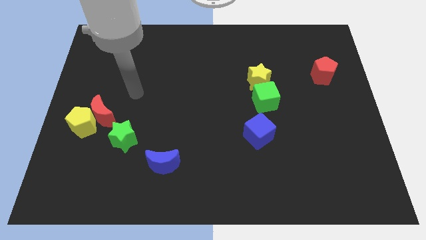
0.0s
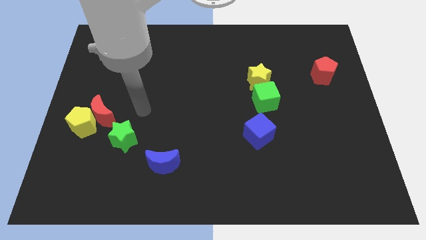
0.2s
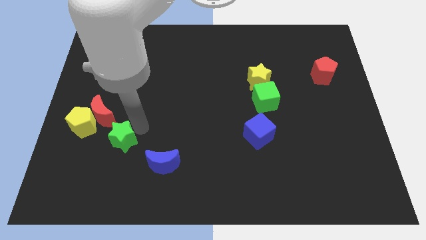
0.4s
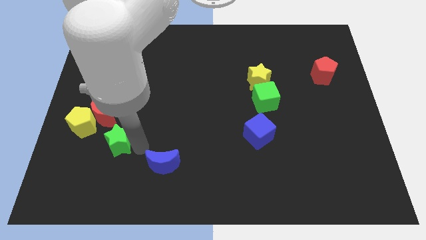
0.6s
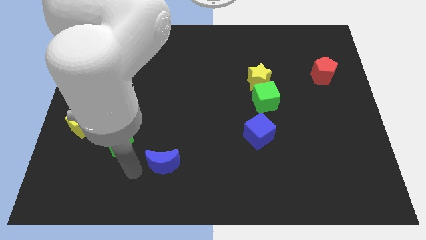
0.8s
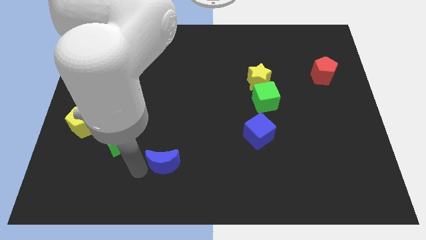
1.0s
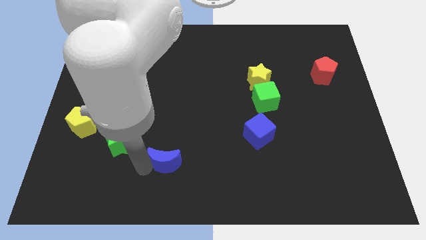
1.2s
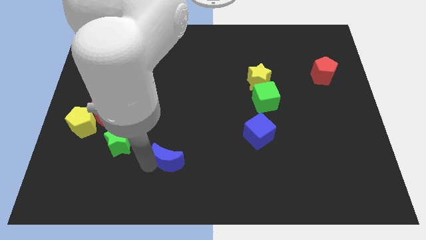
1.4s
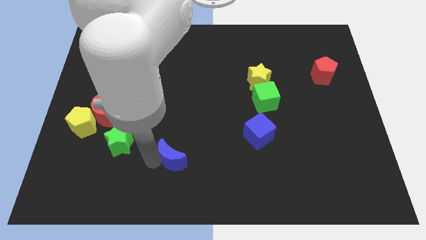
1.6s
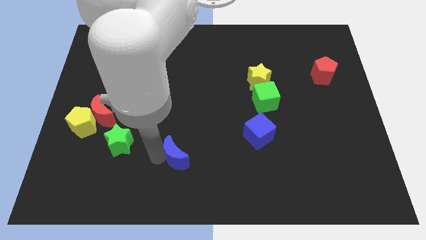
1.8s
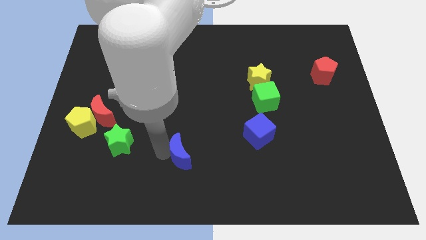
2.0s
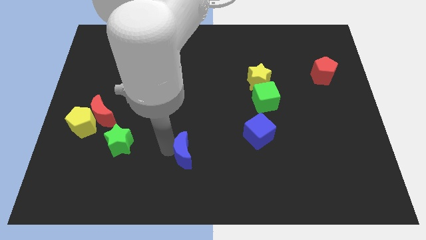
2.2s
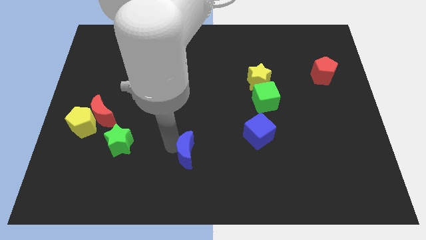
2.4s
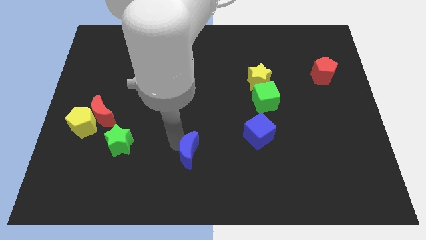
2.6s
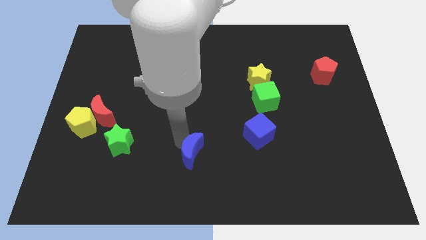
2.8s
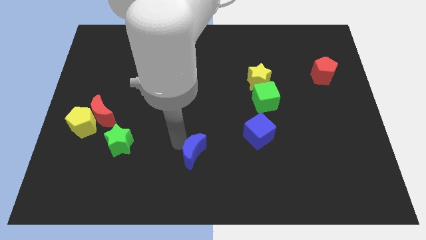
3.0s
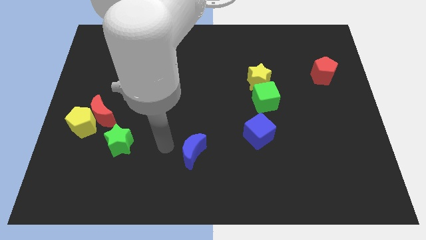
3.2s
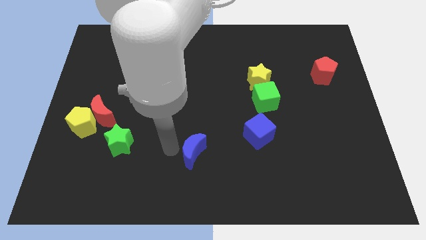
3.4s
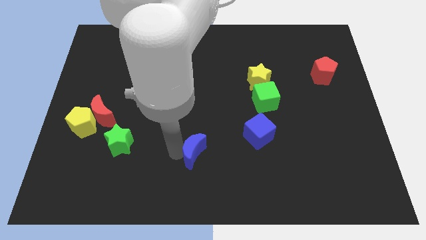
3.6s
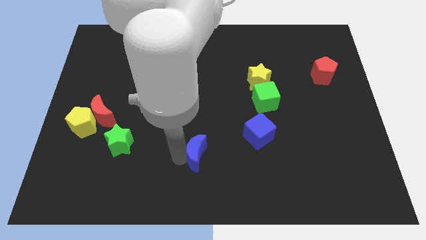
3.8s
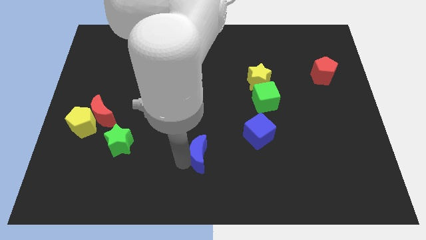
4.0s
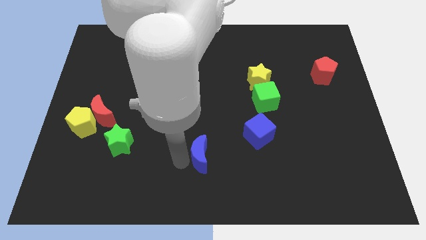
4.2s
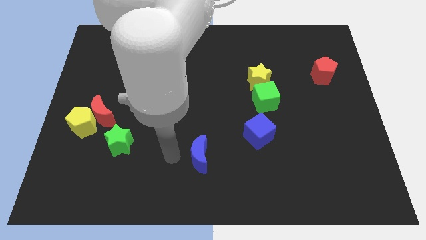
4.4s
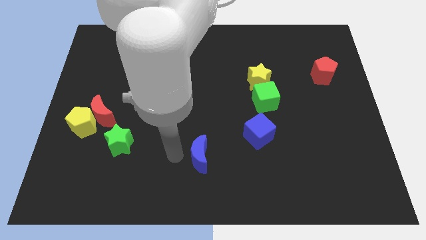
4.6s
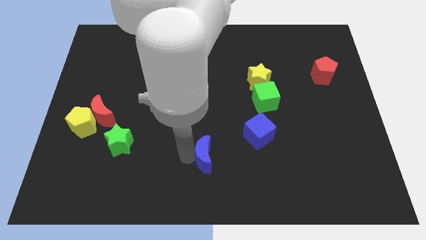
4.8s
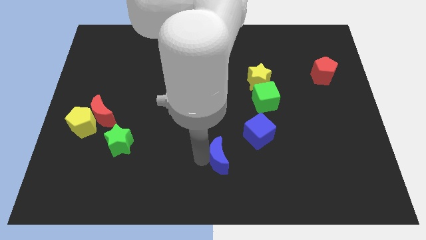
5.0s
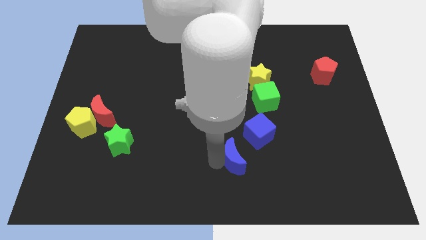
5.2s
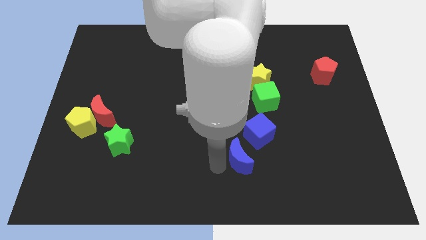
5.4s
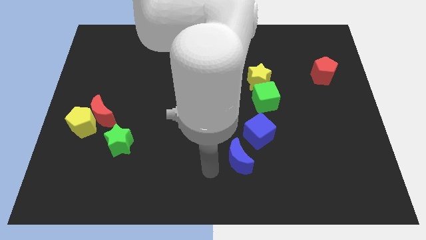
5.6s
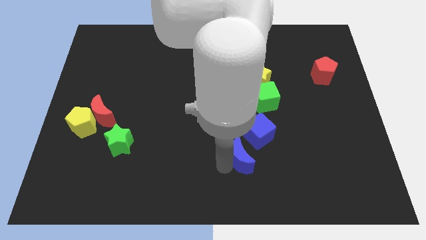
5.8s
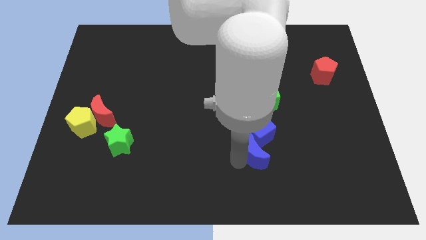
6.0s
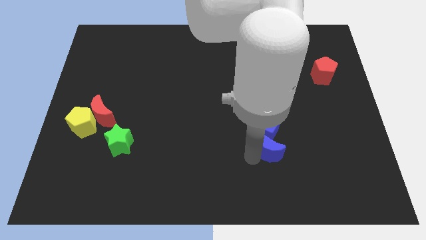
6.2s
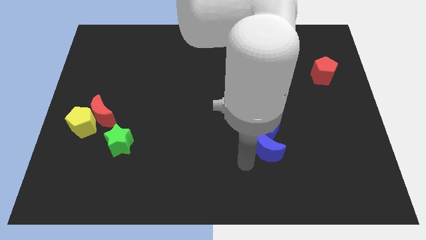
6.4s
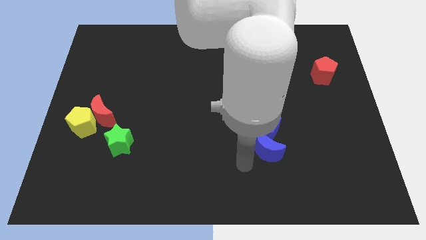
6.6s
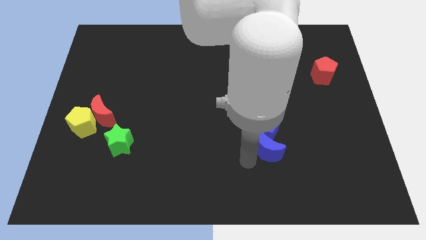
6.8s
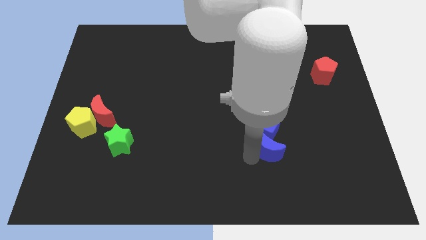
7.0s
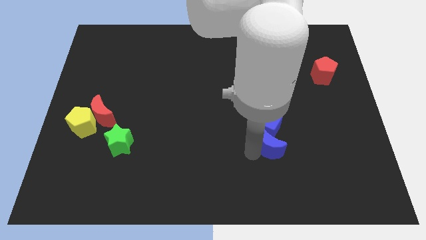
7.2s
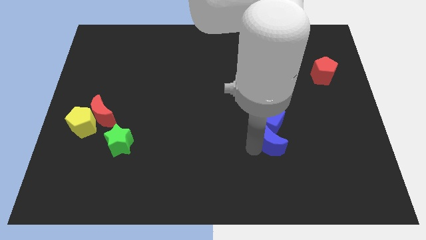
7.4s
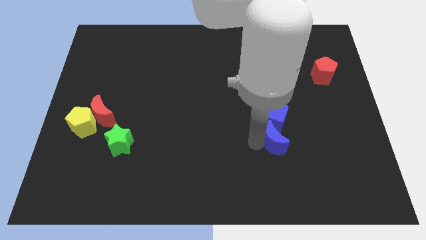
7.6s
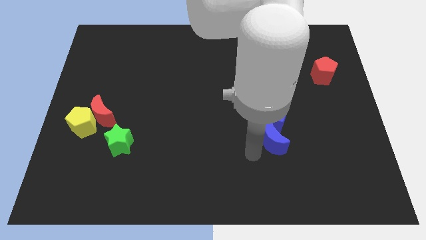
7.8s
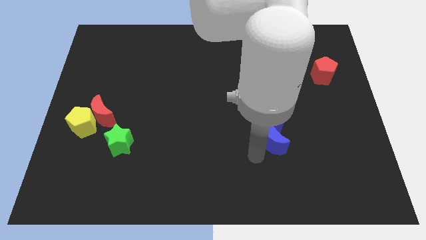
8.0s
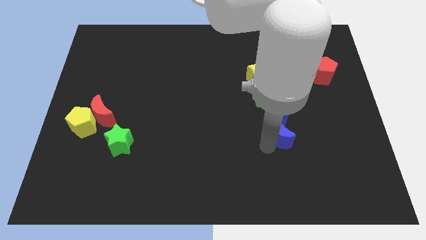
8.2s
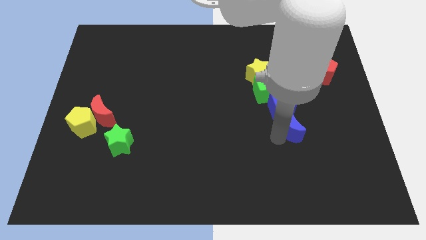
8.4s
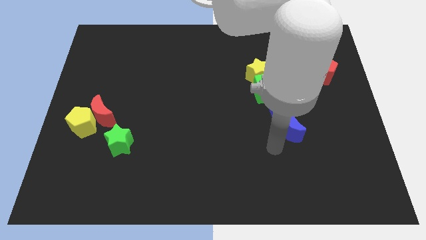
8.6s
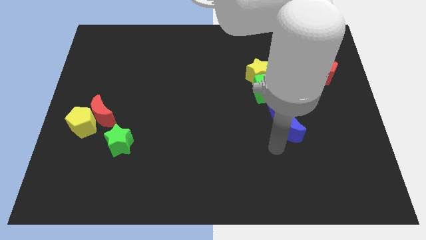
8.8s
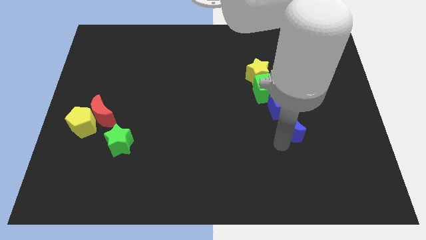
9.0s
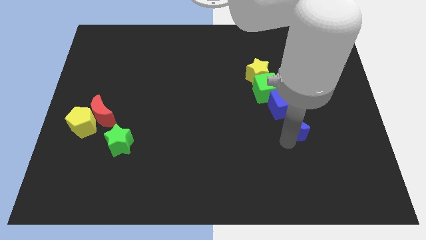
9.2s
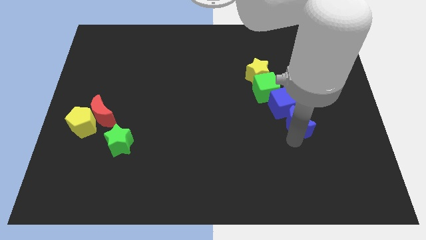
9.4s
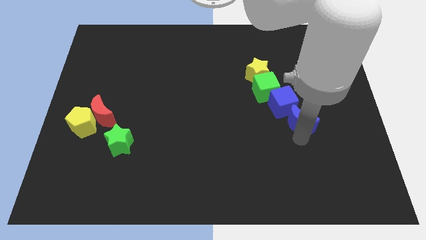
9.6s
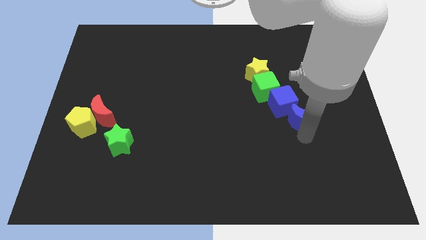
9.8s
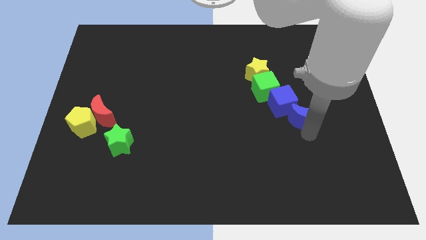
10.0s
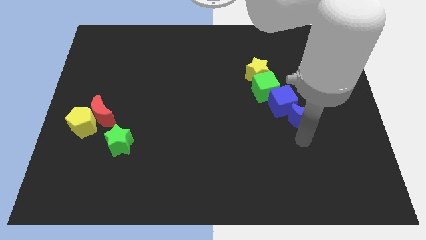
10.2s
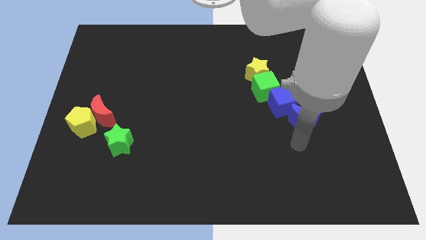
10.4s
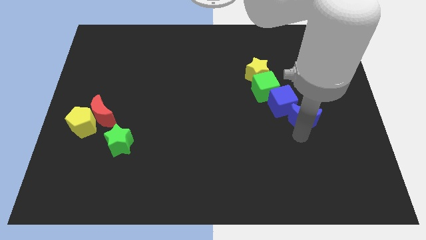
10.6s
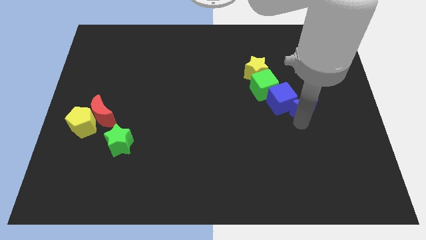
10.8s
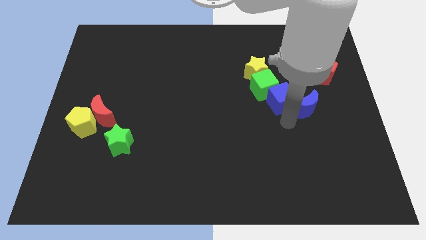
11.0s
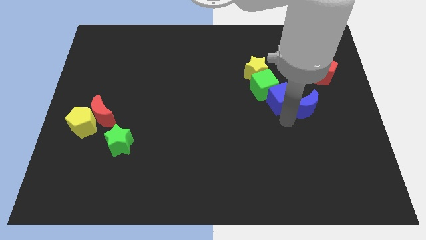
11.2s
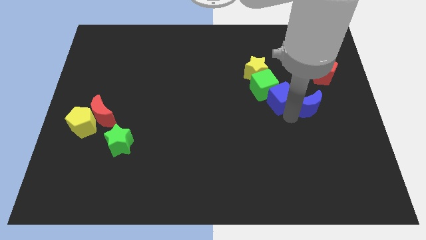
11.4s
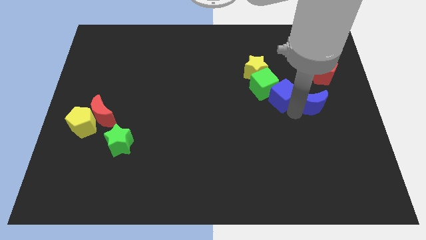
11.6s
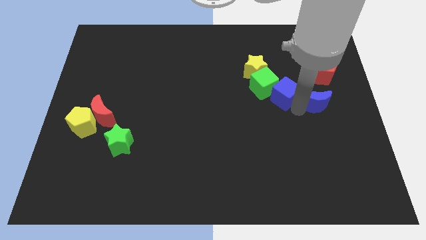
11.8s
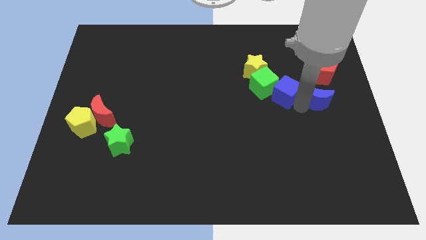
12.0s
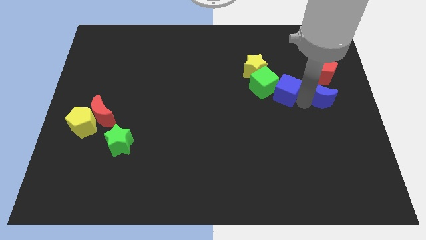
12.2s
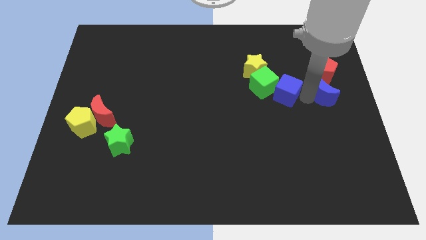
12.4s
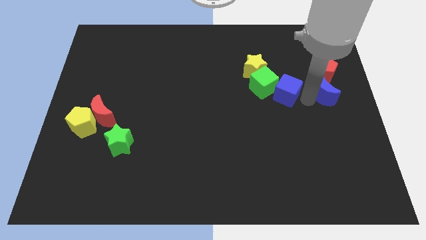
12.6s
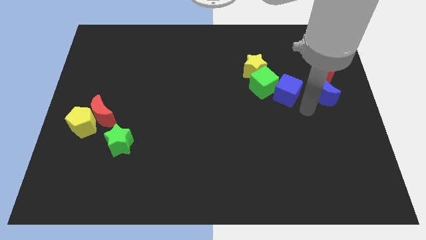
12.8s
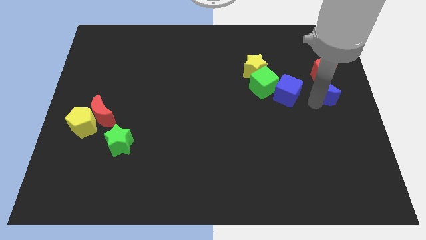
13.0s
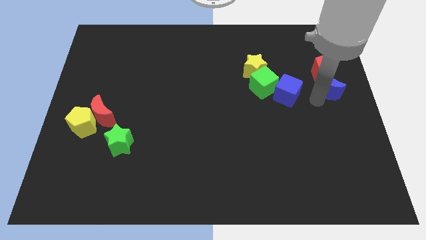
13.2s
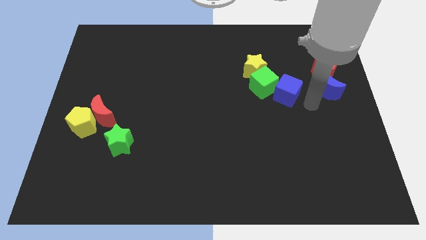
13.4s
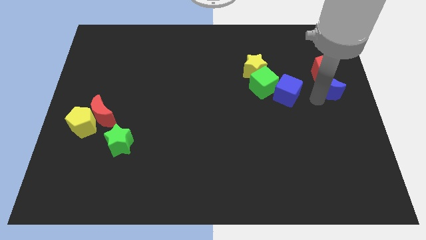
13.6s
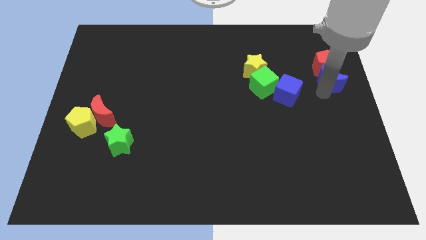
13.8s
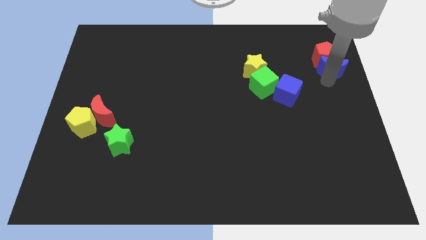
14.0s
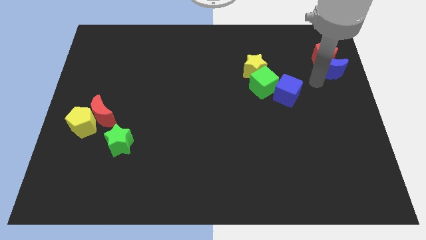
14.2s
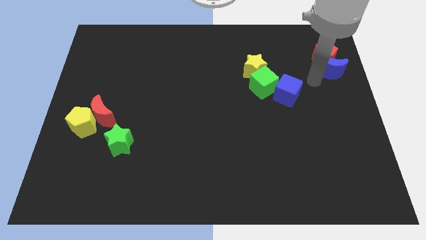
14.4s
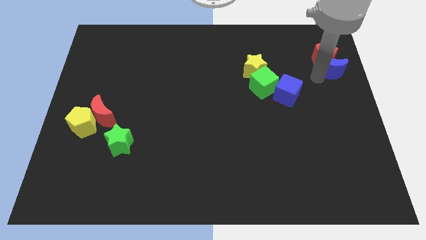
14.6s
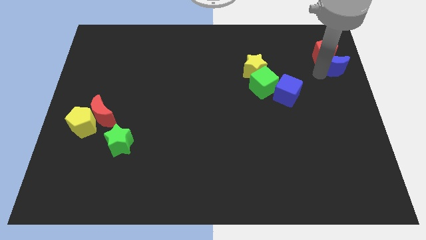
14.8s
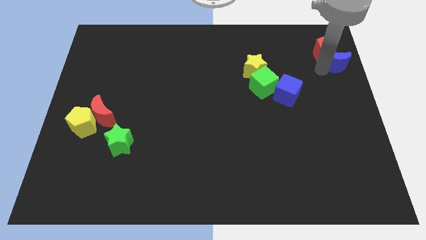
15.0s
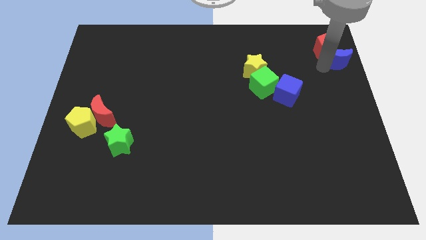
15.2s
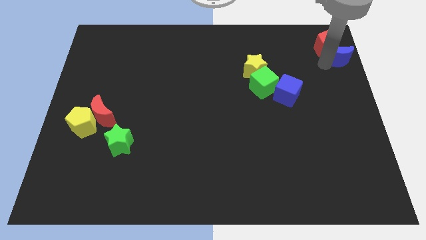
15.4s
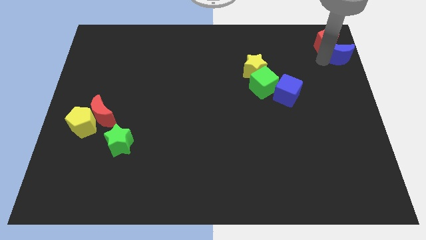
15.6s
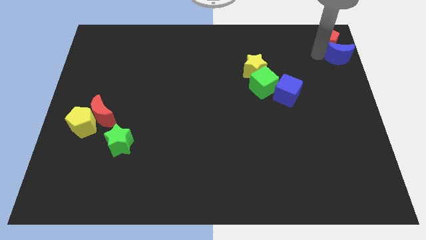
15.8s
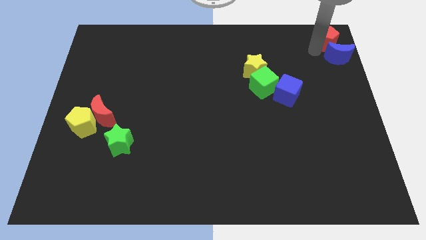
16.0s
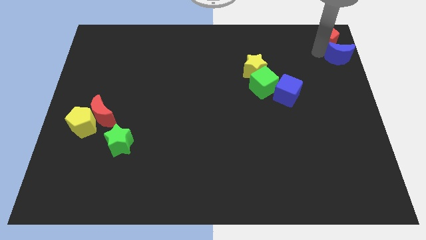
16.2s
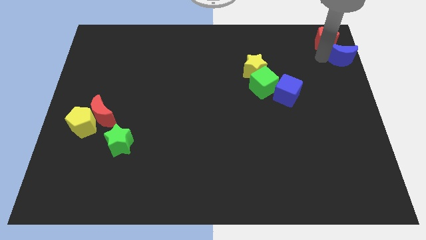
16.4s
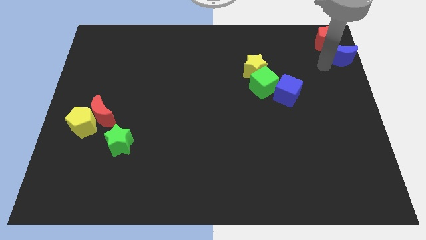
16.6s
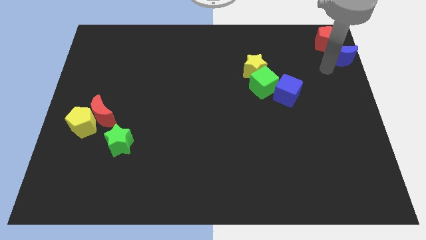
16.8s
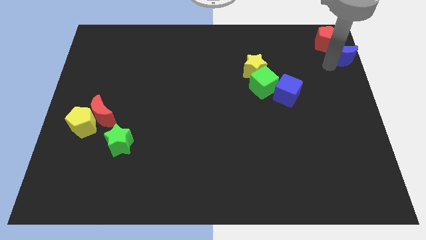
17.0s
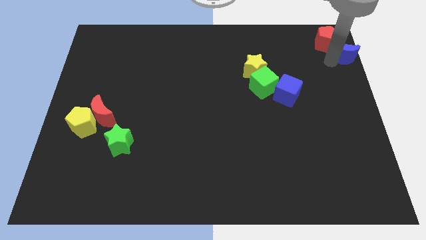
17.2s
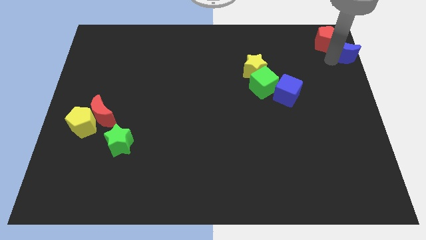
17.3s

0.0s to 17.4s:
put the blue moon to the top right corner
